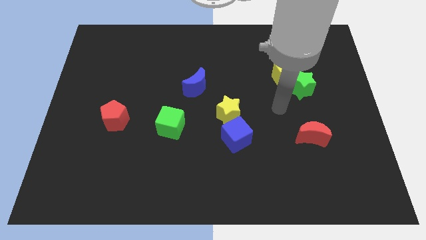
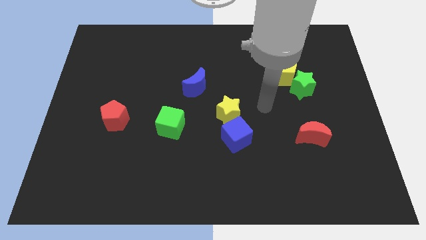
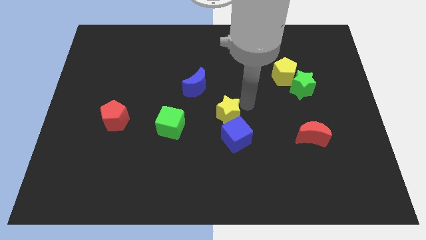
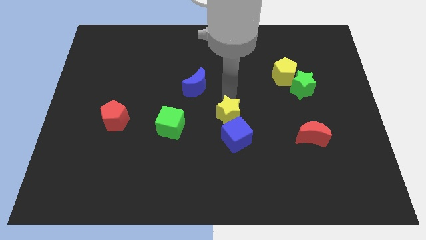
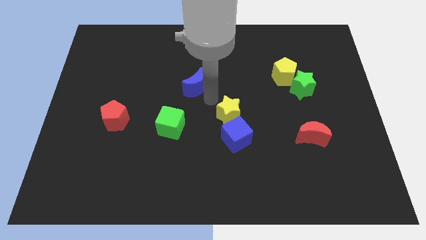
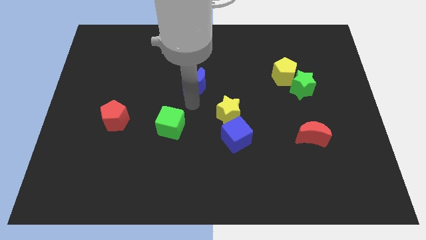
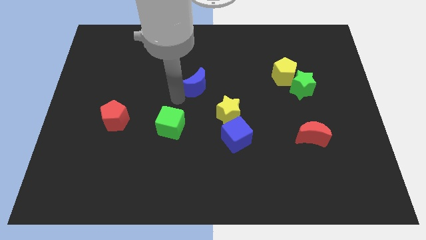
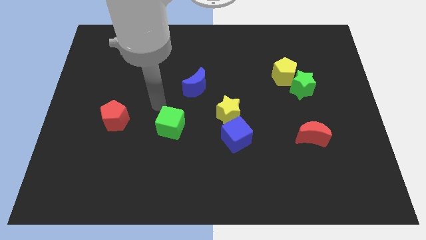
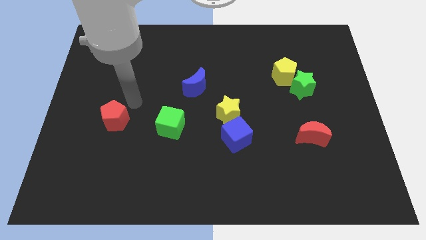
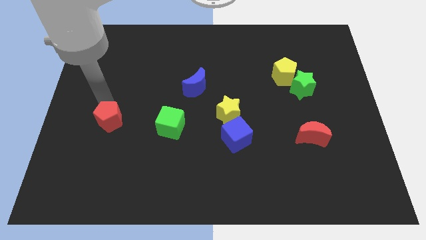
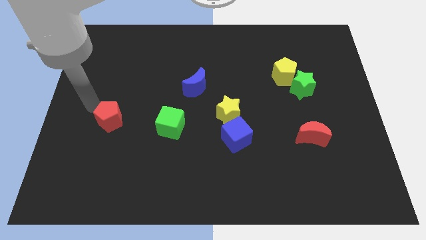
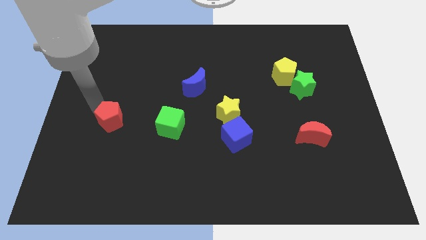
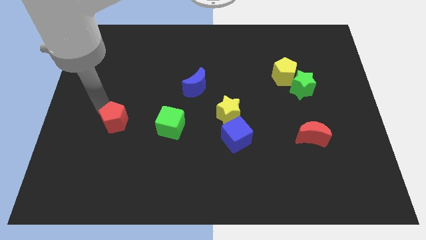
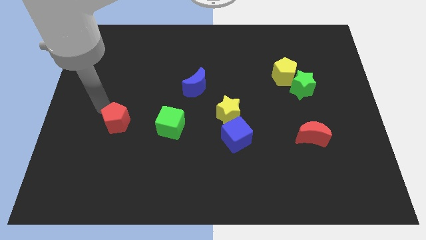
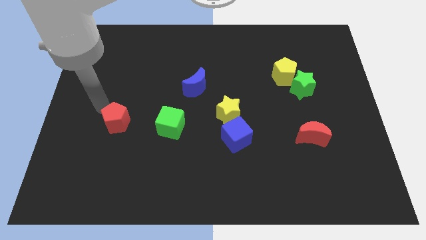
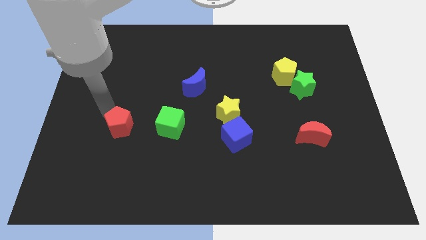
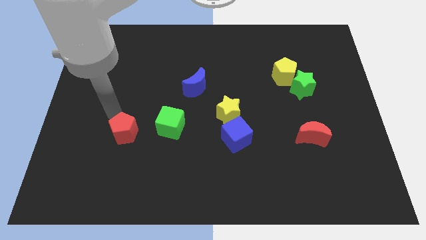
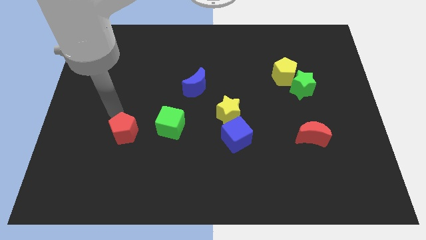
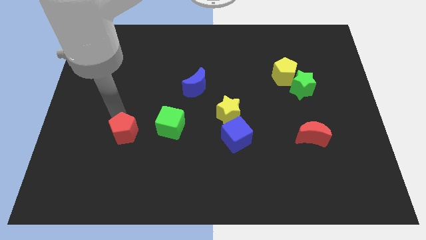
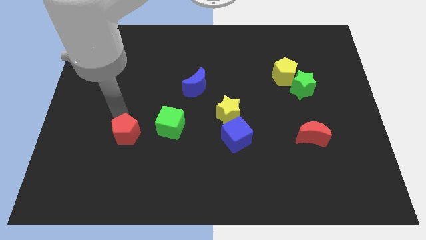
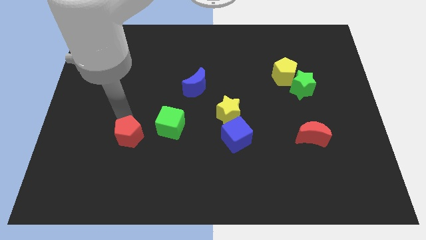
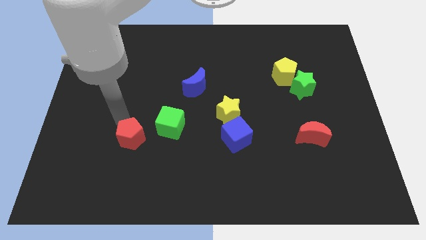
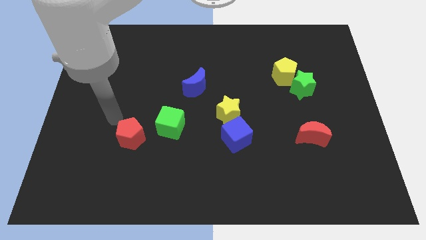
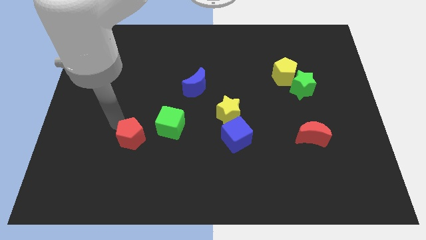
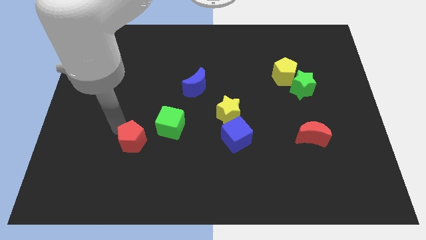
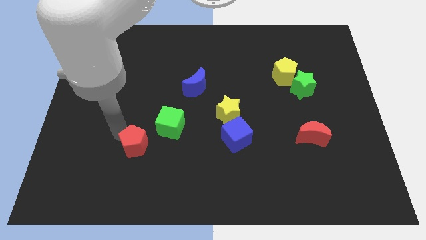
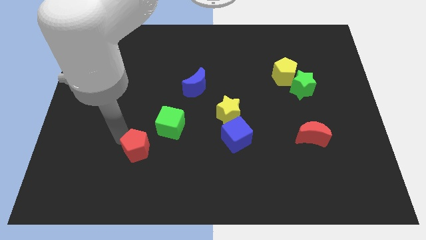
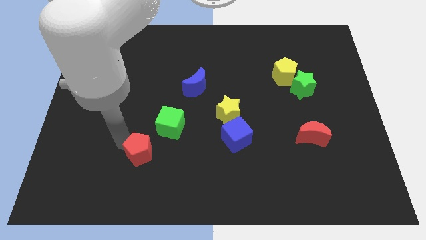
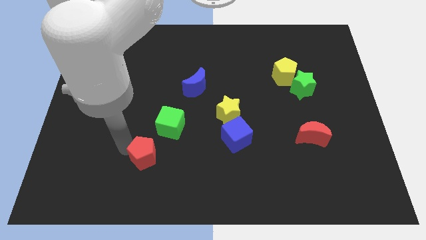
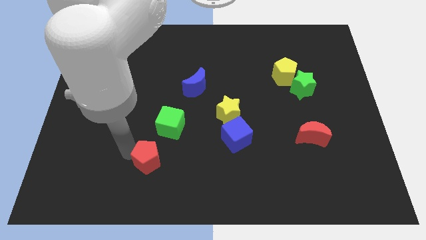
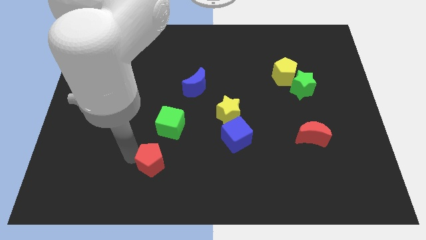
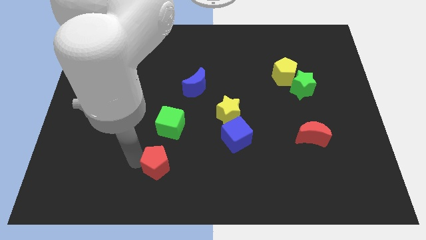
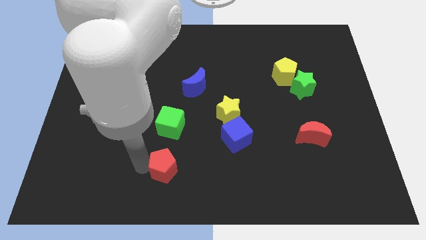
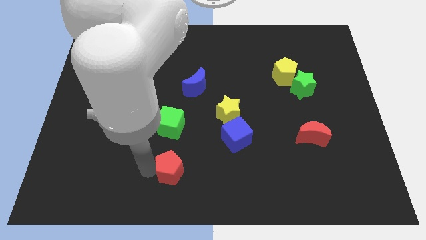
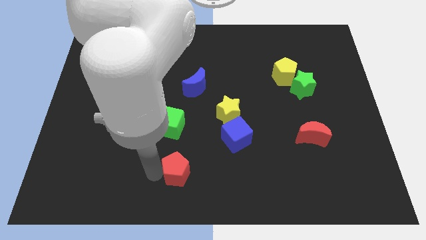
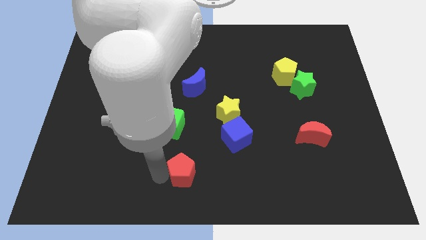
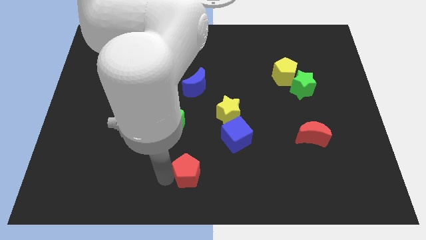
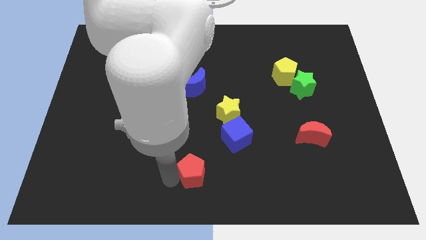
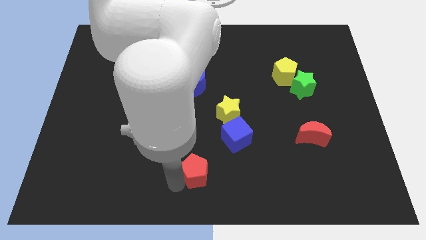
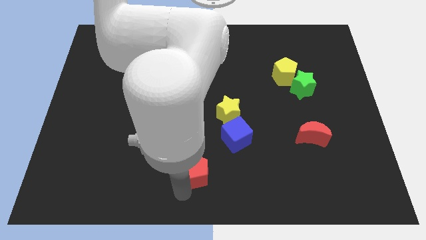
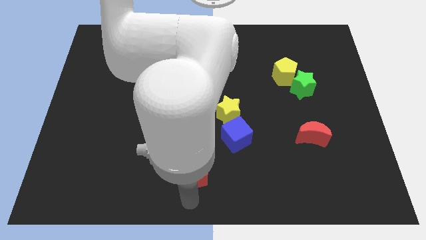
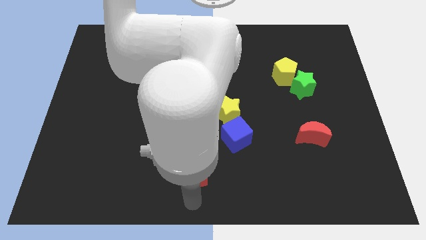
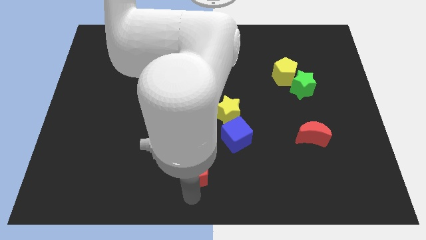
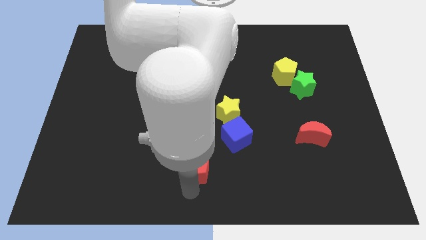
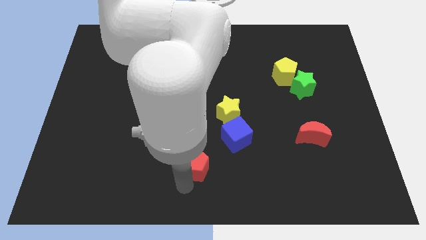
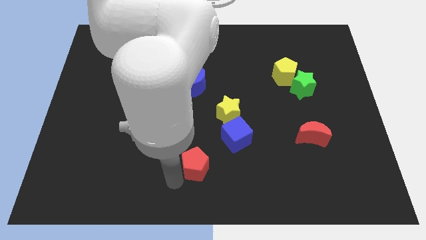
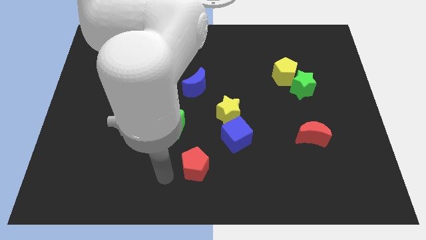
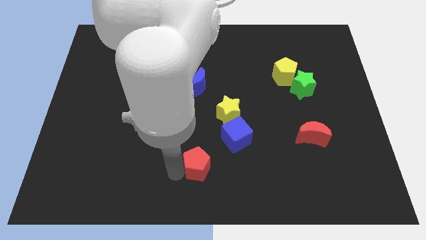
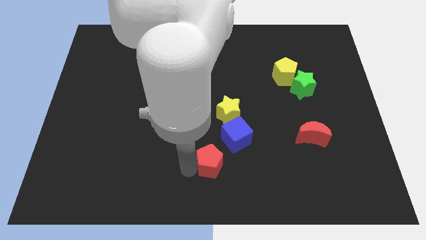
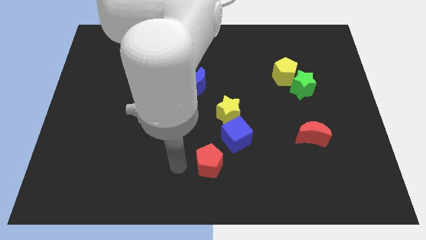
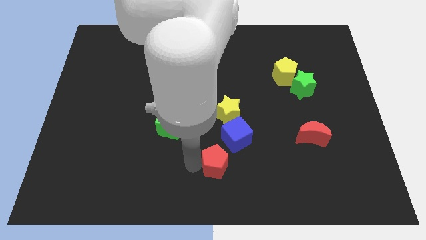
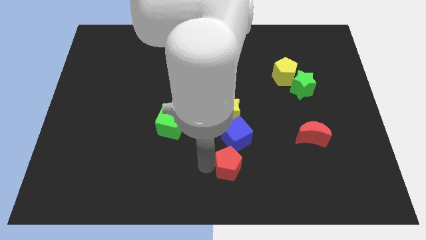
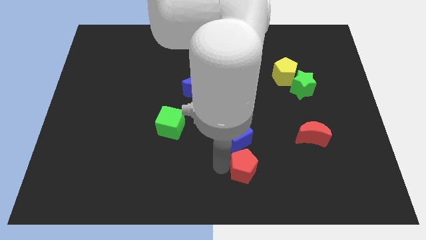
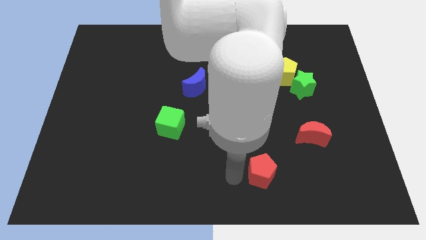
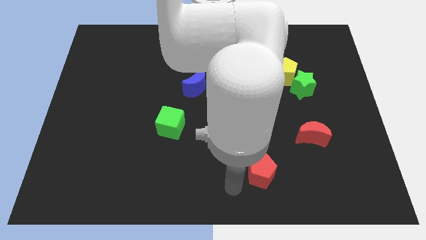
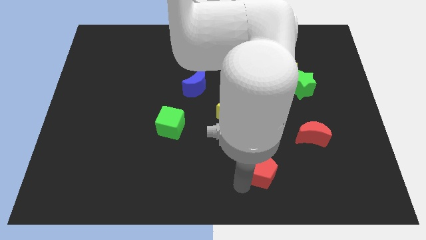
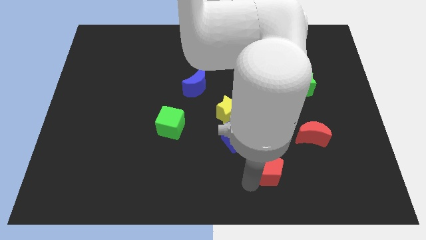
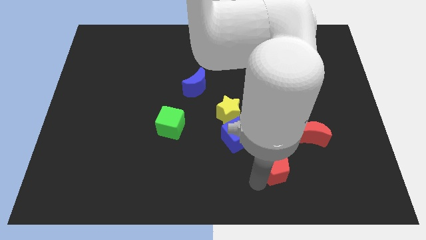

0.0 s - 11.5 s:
push the red pentagon to the bottom left side of the red moon

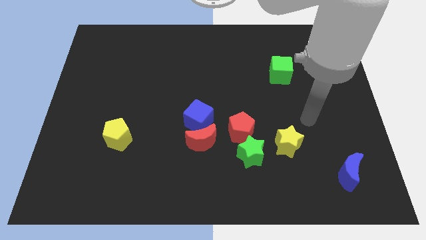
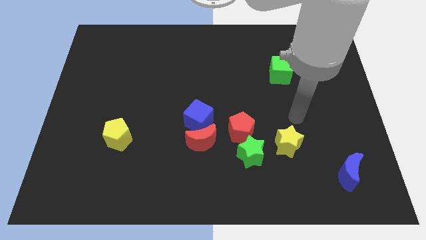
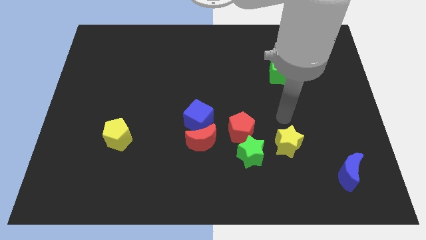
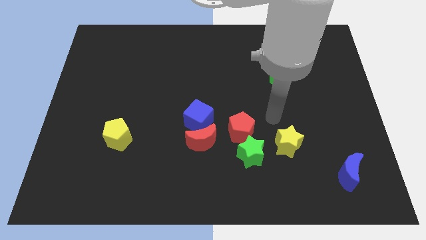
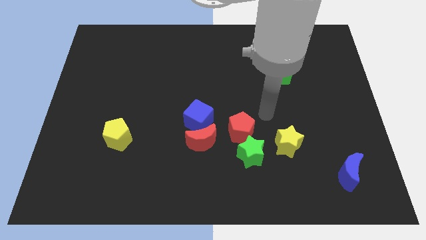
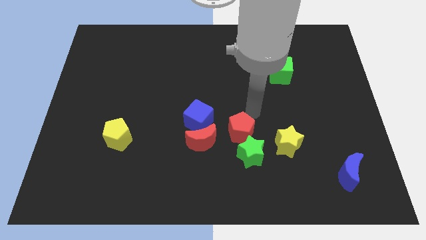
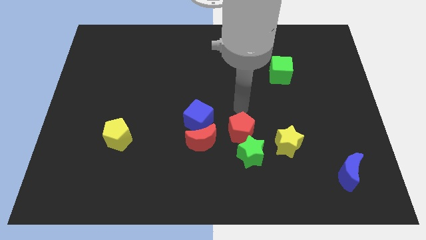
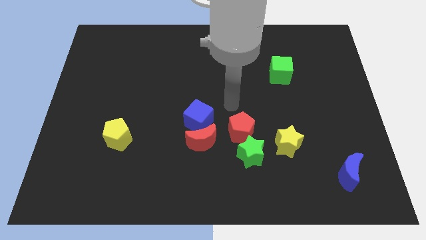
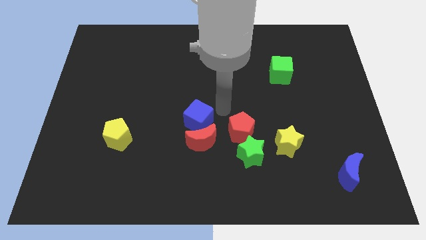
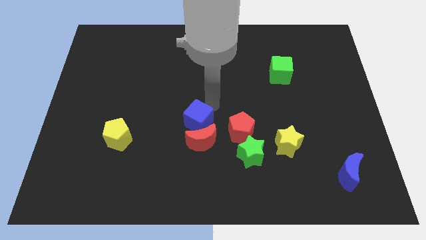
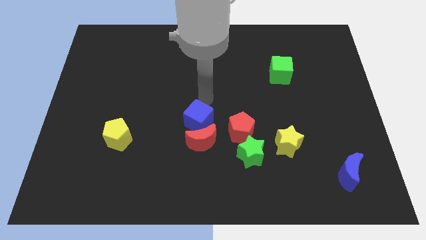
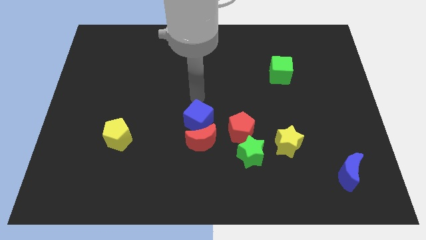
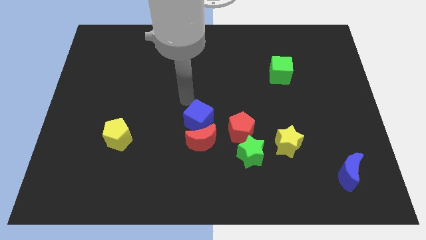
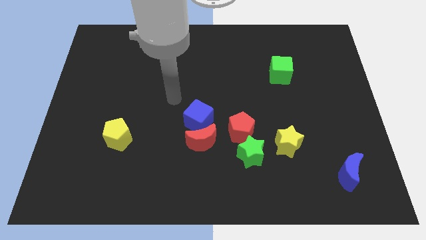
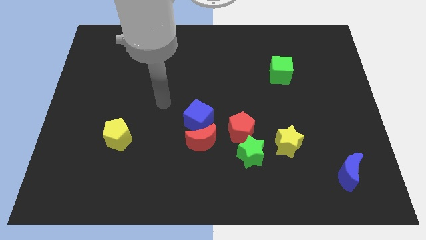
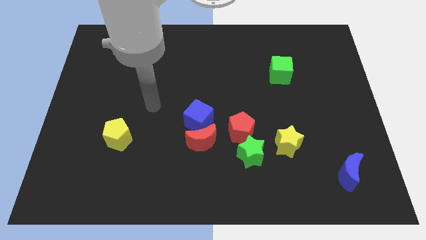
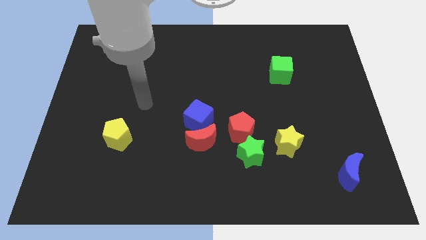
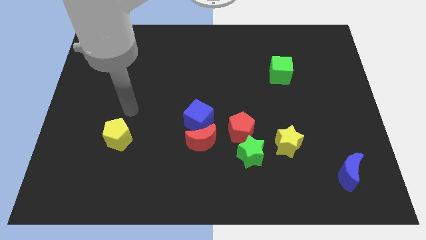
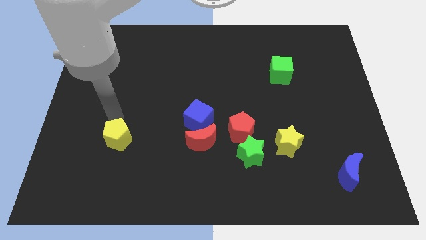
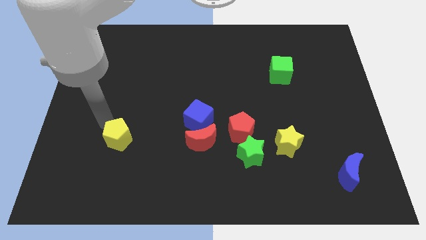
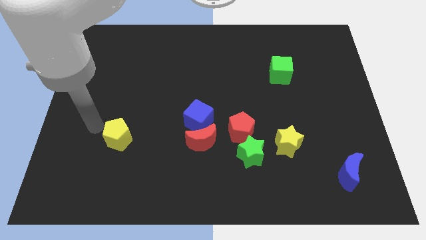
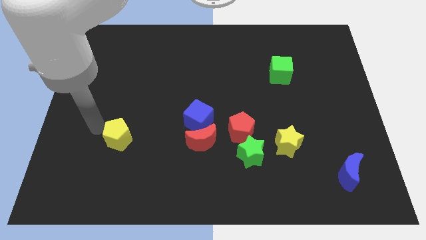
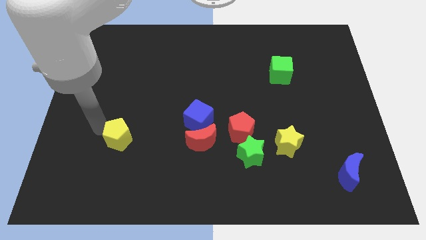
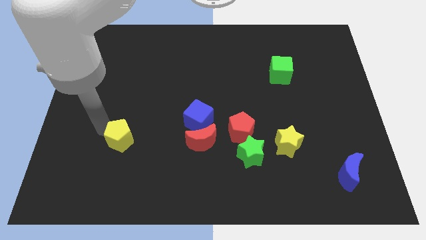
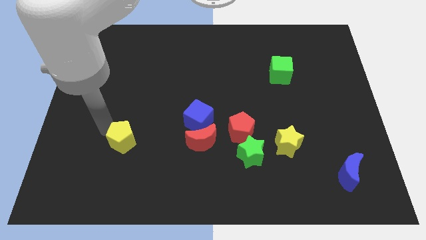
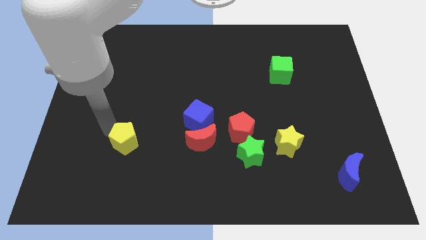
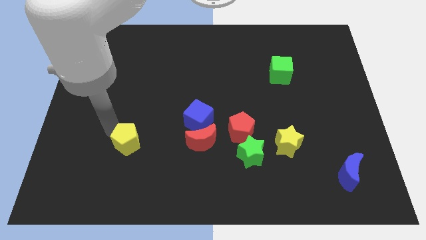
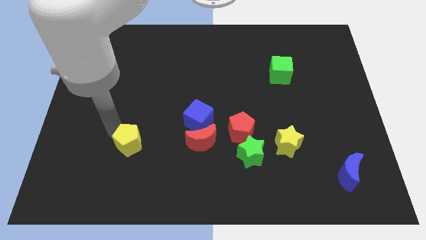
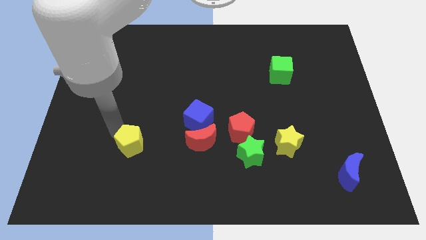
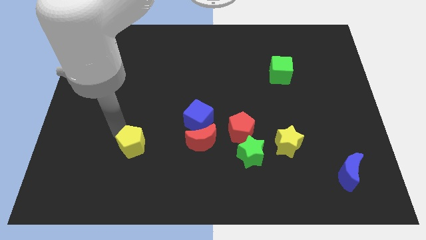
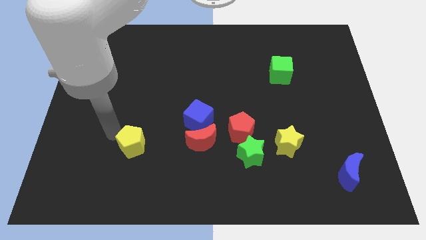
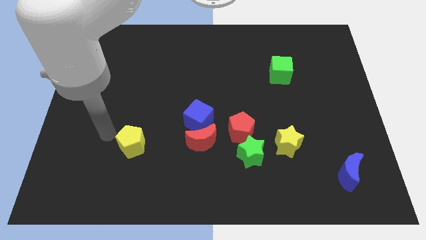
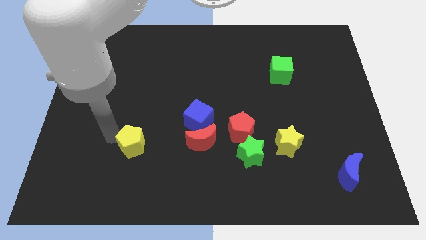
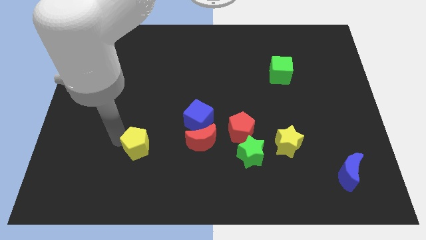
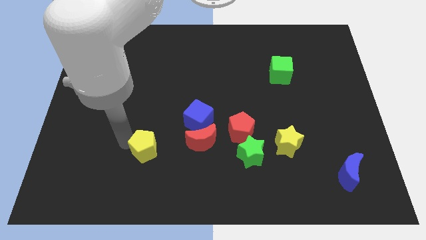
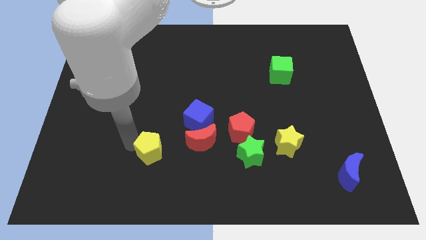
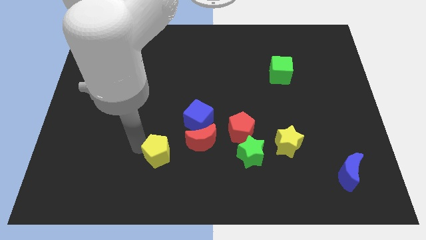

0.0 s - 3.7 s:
put the yellow pentagon to the bottom left side of the red moon
